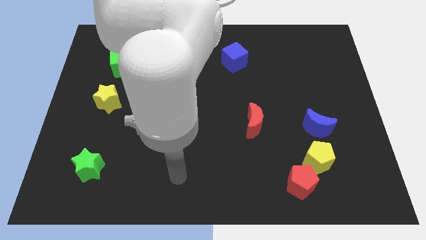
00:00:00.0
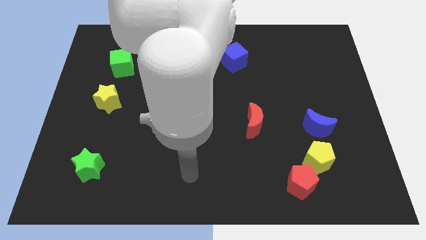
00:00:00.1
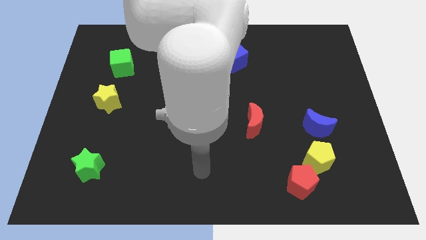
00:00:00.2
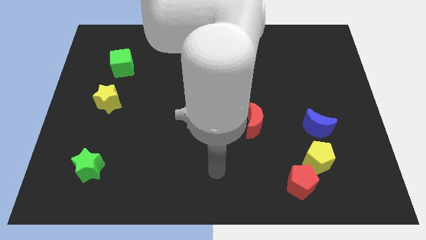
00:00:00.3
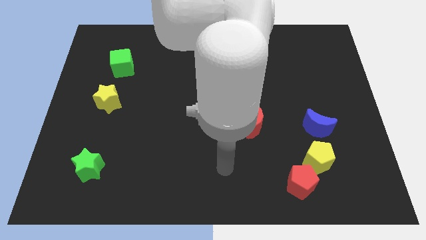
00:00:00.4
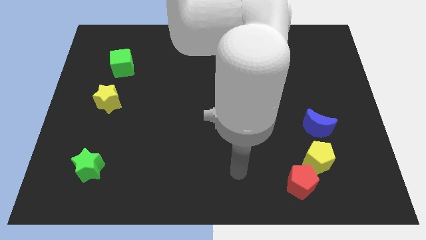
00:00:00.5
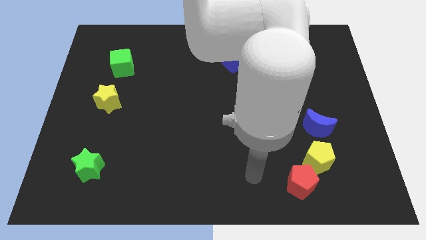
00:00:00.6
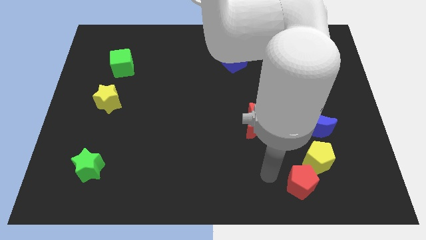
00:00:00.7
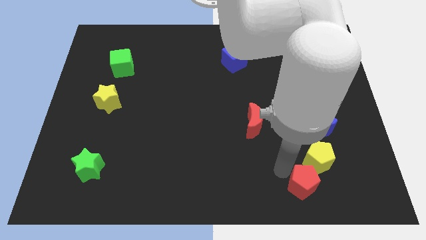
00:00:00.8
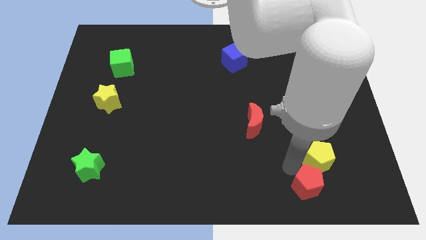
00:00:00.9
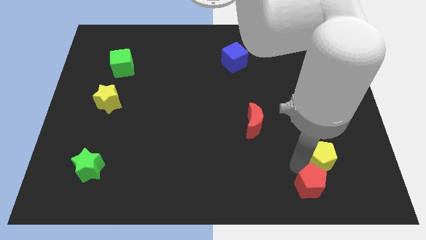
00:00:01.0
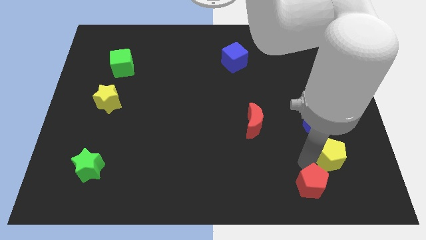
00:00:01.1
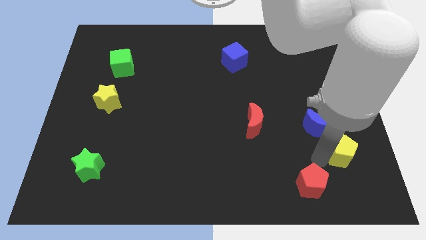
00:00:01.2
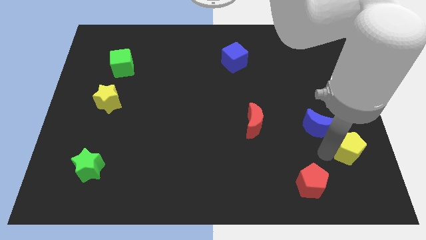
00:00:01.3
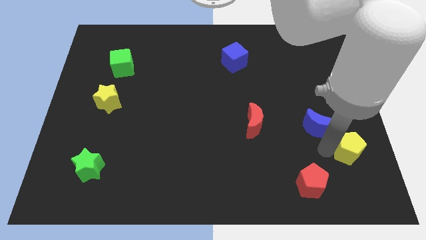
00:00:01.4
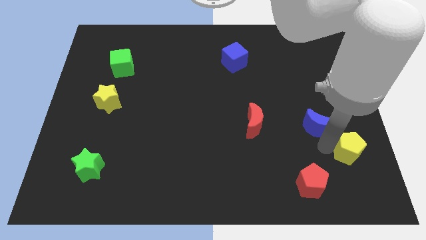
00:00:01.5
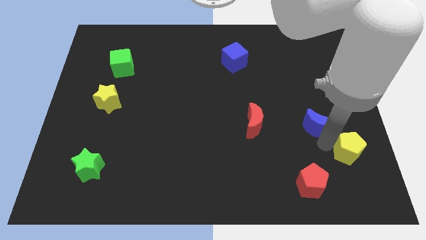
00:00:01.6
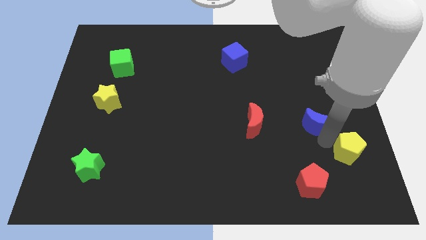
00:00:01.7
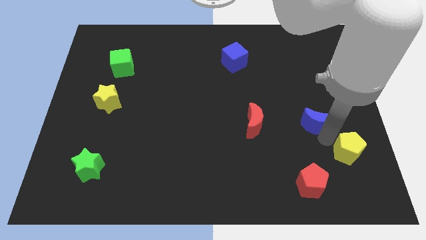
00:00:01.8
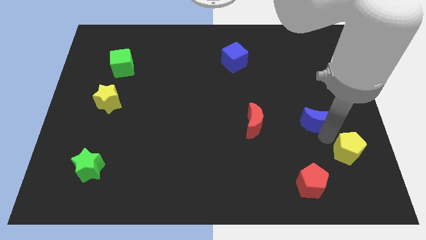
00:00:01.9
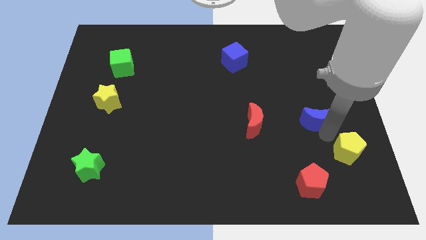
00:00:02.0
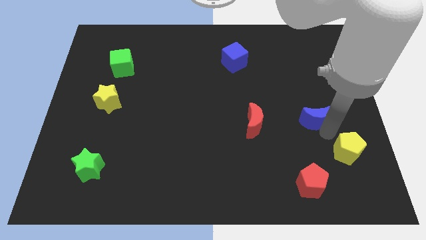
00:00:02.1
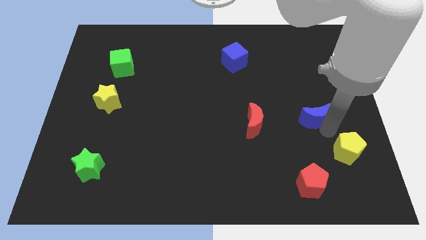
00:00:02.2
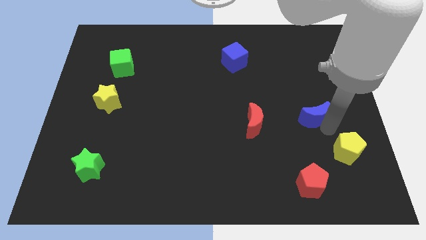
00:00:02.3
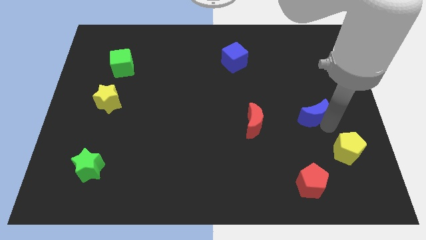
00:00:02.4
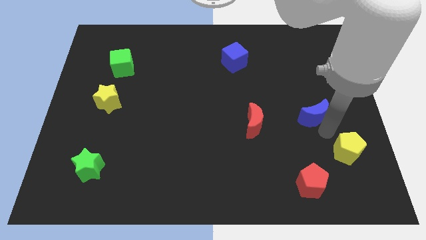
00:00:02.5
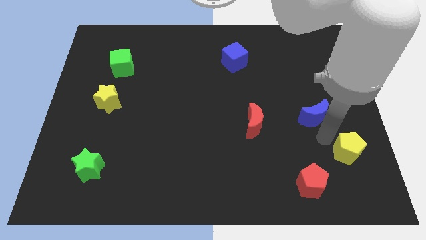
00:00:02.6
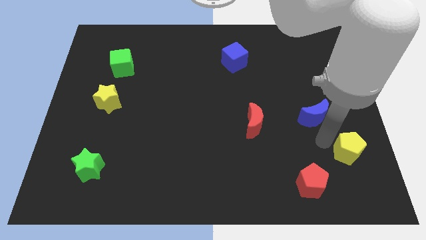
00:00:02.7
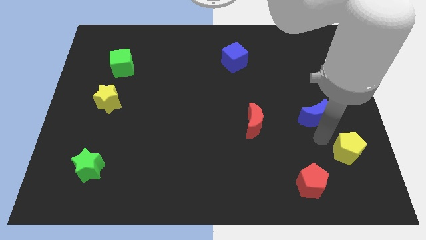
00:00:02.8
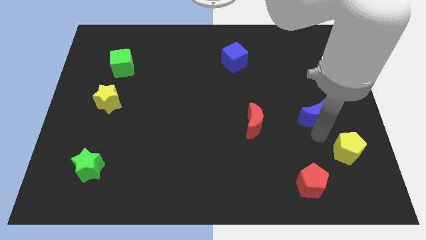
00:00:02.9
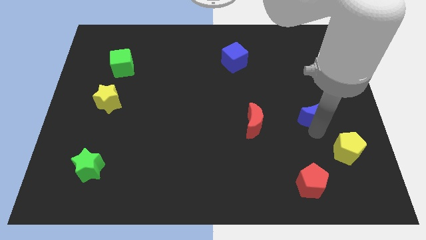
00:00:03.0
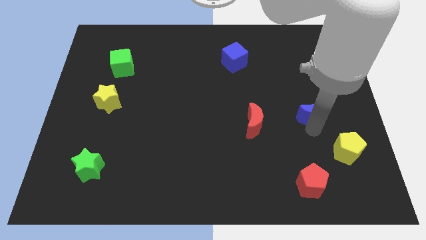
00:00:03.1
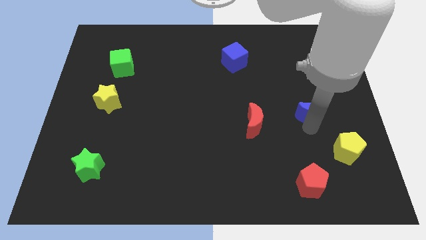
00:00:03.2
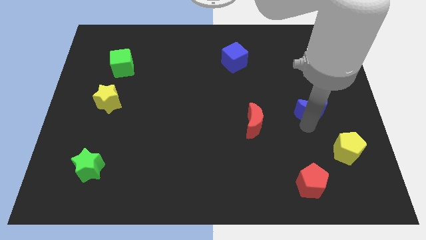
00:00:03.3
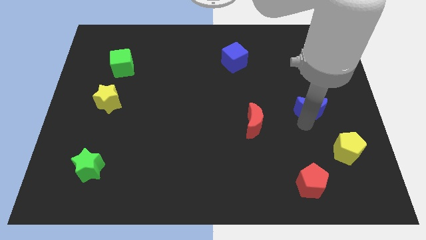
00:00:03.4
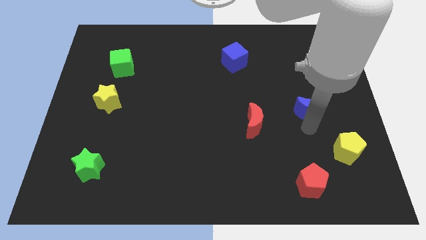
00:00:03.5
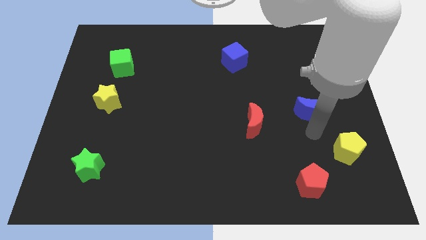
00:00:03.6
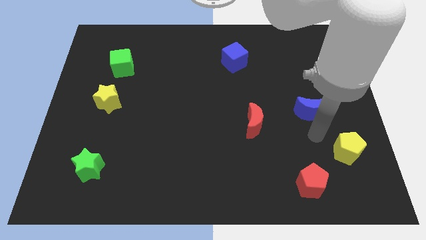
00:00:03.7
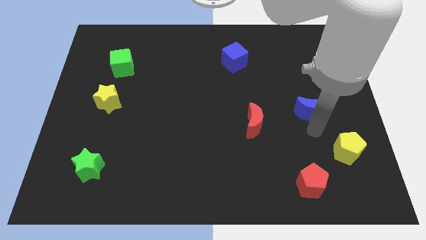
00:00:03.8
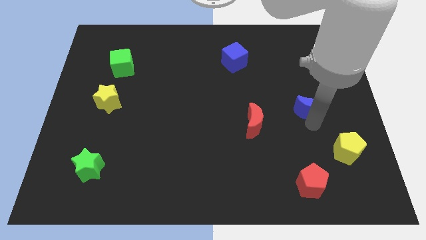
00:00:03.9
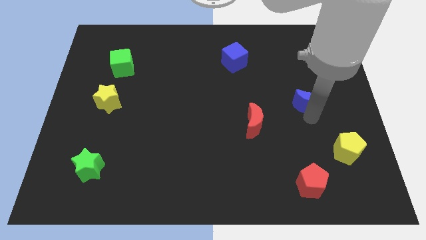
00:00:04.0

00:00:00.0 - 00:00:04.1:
slightly move the blue moon upwards

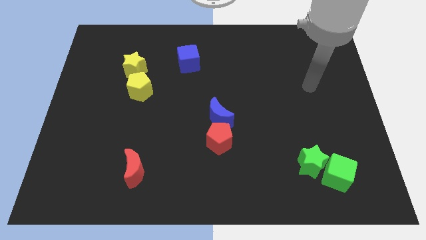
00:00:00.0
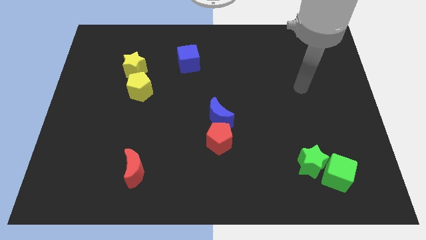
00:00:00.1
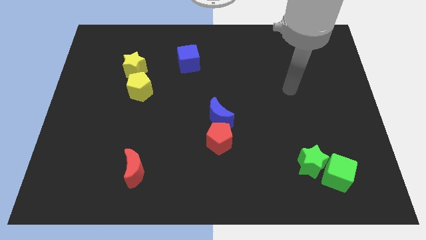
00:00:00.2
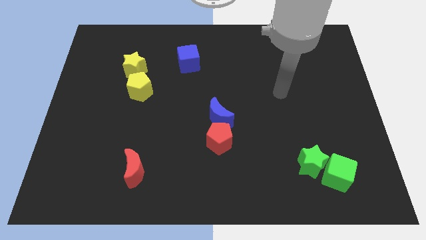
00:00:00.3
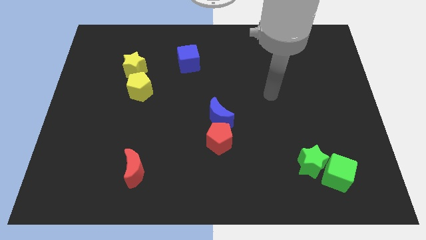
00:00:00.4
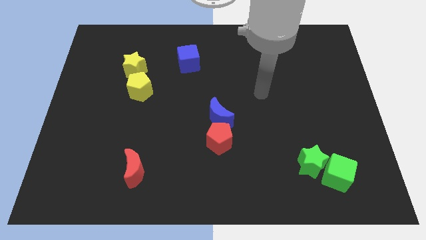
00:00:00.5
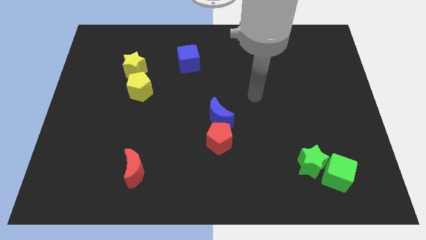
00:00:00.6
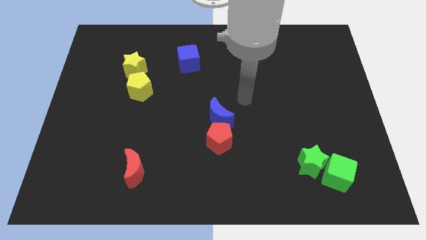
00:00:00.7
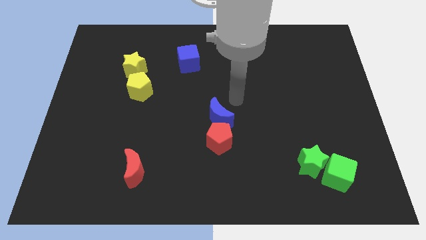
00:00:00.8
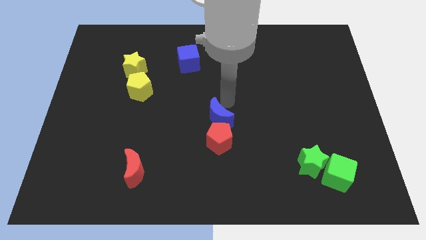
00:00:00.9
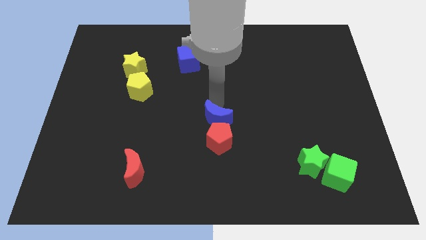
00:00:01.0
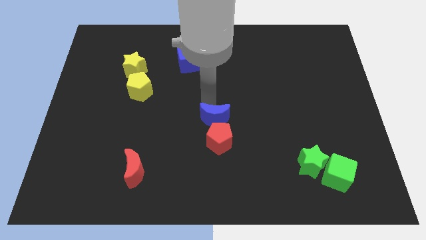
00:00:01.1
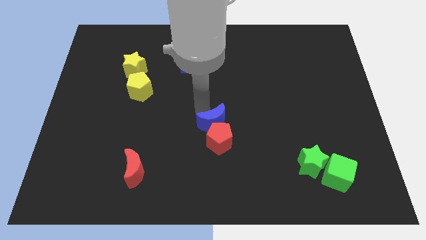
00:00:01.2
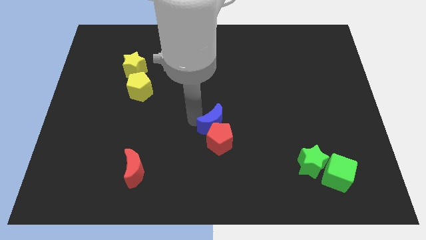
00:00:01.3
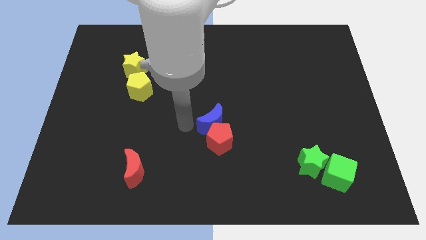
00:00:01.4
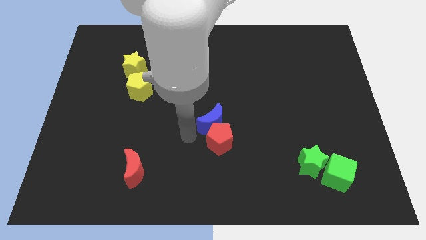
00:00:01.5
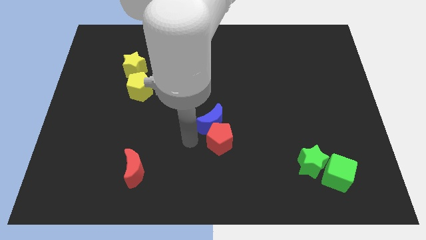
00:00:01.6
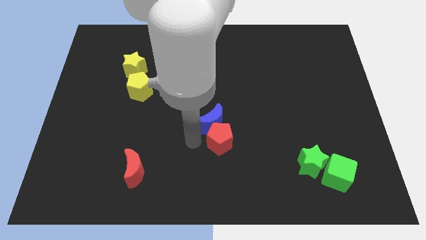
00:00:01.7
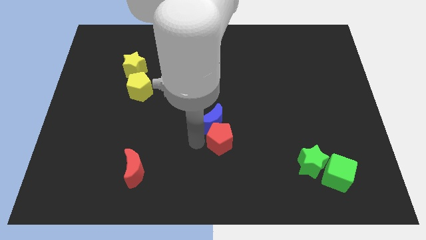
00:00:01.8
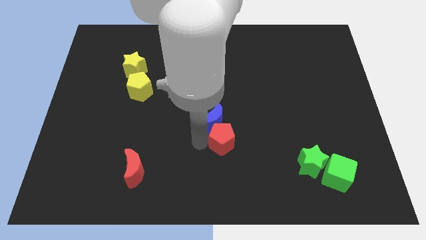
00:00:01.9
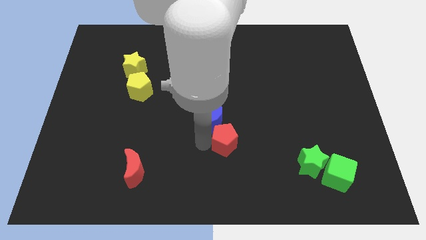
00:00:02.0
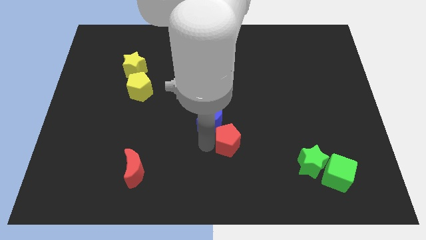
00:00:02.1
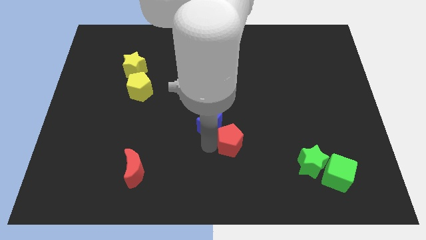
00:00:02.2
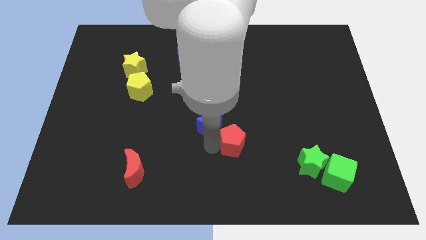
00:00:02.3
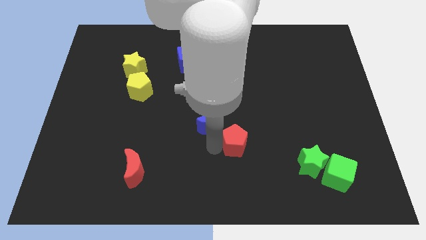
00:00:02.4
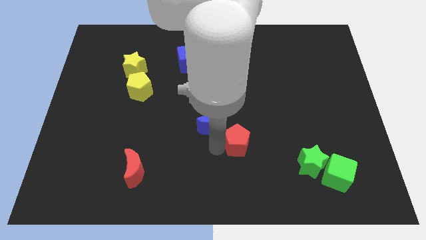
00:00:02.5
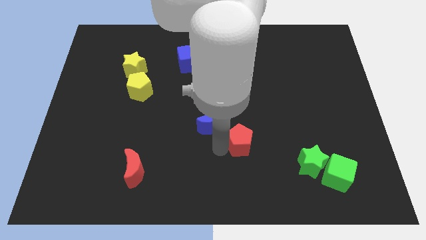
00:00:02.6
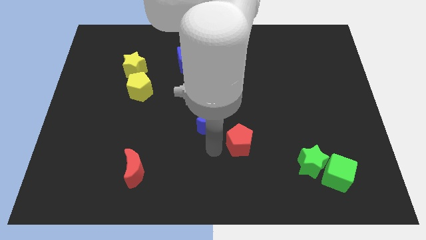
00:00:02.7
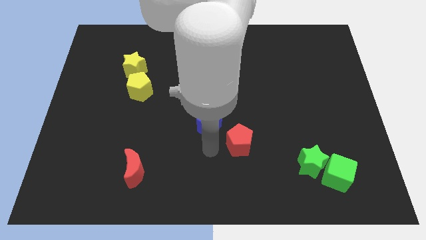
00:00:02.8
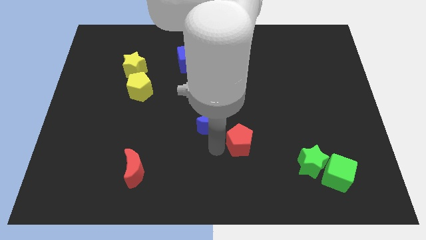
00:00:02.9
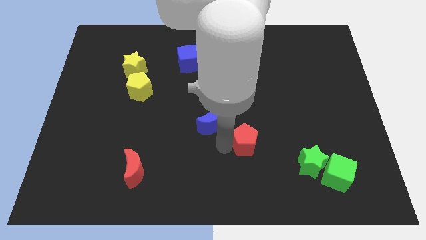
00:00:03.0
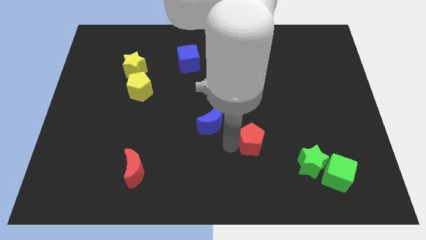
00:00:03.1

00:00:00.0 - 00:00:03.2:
slide the red pentagon a bit right

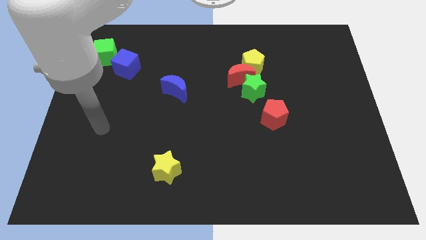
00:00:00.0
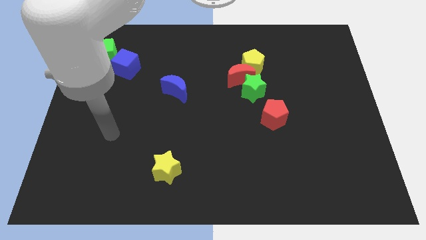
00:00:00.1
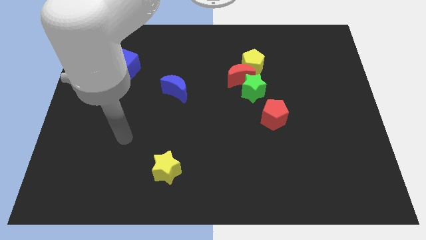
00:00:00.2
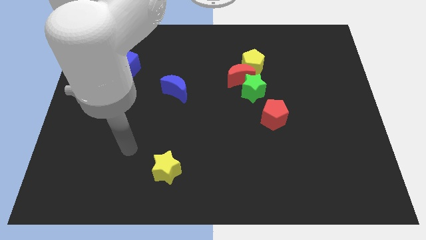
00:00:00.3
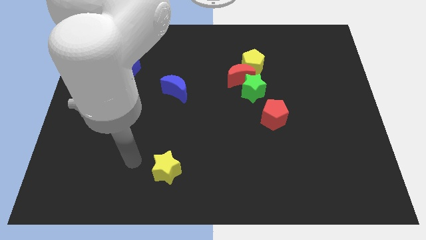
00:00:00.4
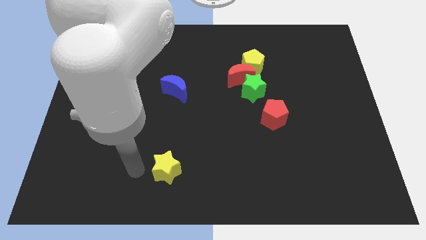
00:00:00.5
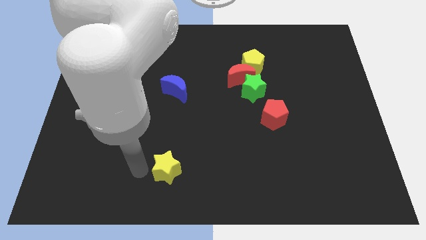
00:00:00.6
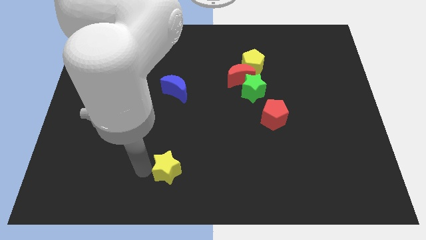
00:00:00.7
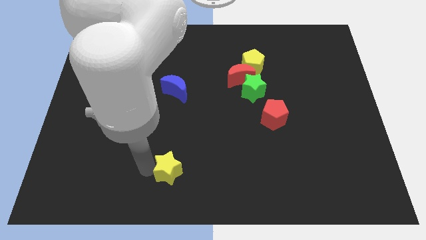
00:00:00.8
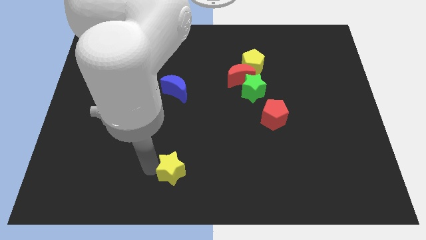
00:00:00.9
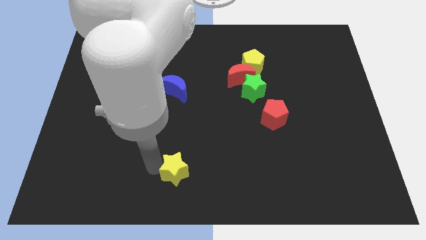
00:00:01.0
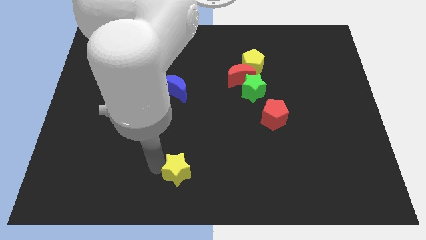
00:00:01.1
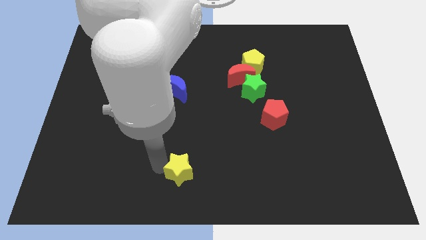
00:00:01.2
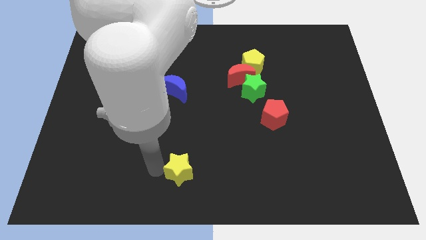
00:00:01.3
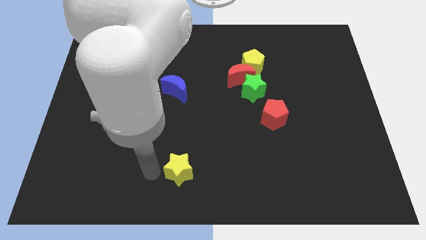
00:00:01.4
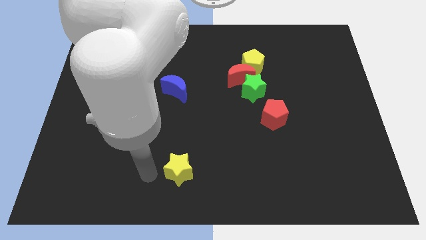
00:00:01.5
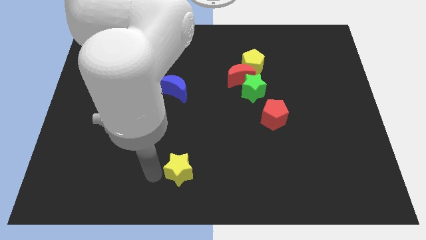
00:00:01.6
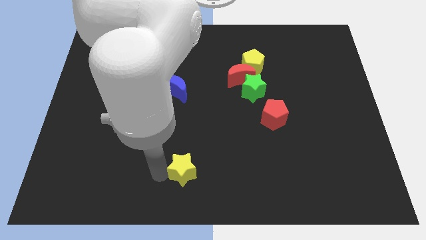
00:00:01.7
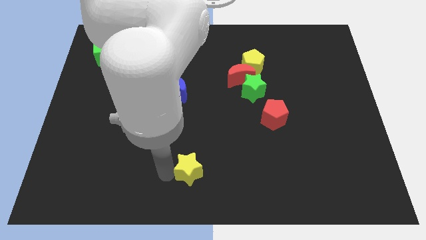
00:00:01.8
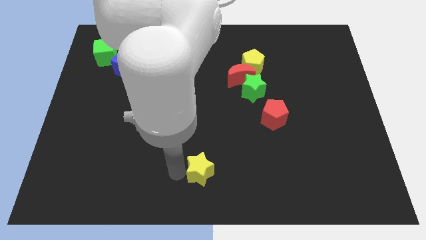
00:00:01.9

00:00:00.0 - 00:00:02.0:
slightly slide the yellow star right
